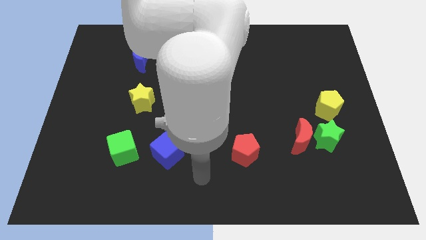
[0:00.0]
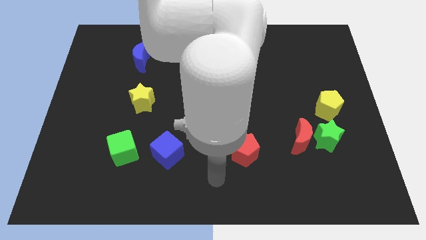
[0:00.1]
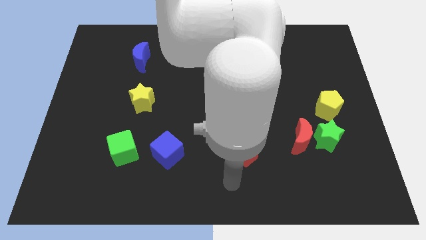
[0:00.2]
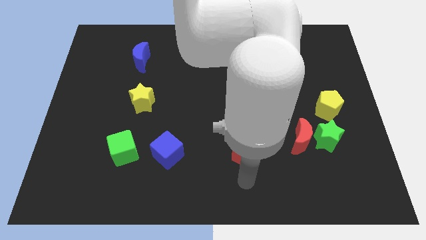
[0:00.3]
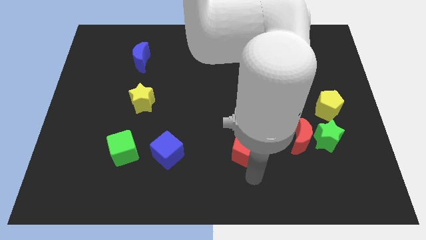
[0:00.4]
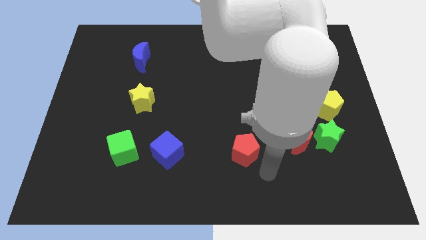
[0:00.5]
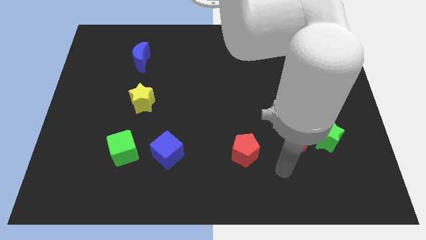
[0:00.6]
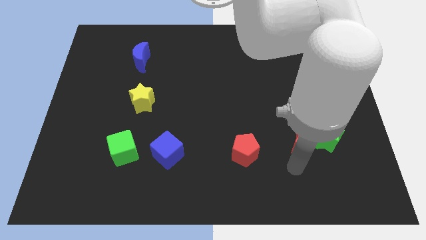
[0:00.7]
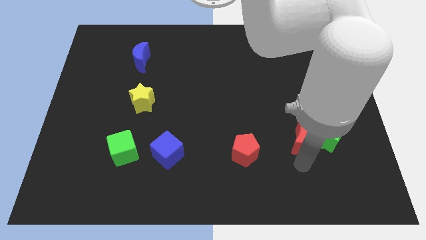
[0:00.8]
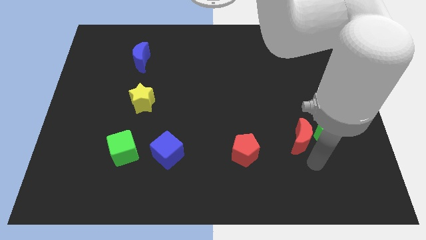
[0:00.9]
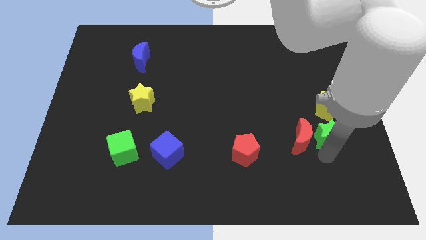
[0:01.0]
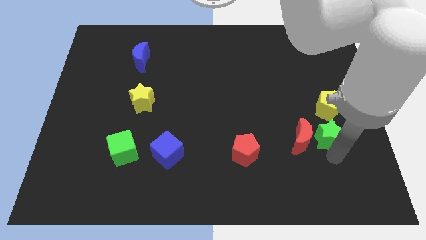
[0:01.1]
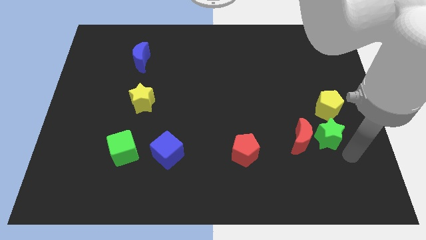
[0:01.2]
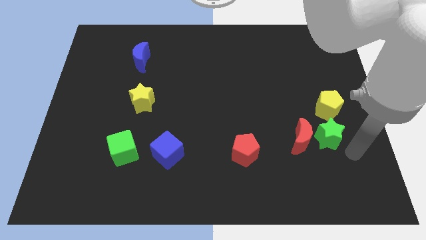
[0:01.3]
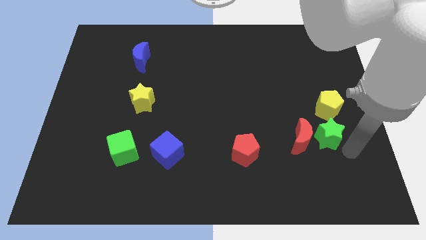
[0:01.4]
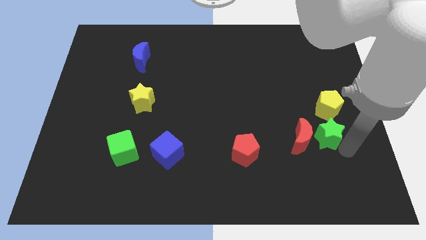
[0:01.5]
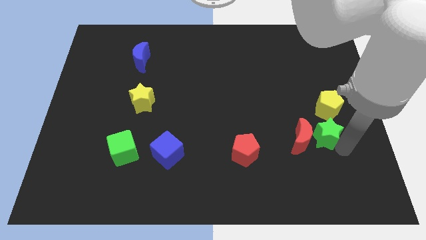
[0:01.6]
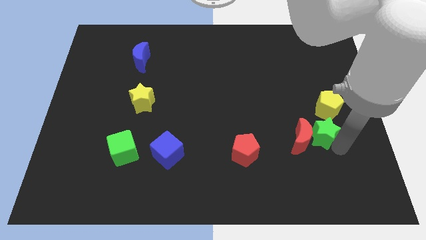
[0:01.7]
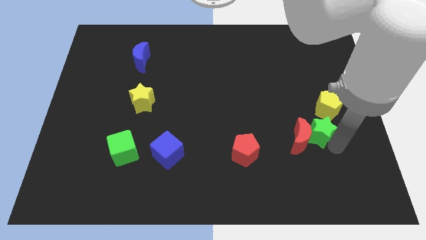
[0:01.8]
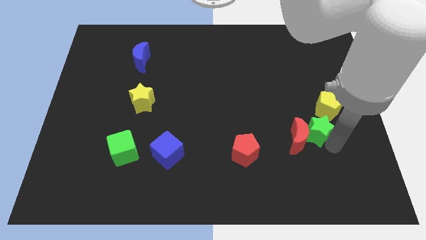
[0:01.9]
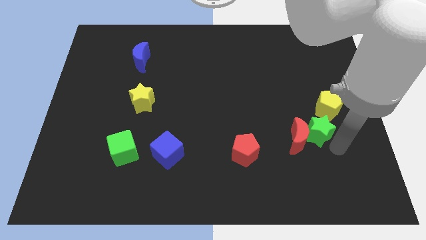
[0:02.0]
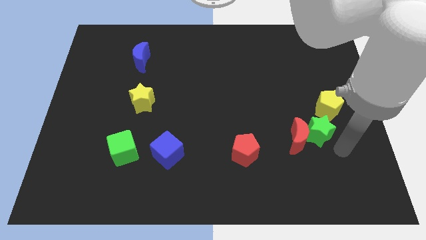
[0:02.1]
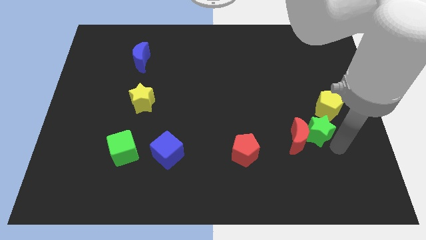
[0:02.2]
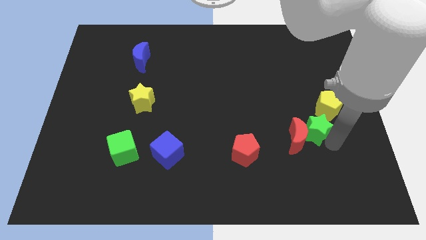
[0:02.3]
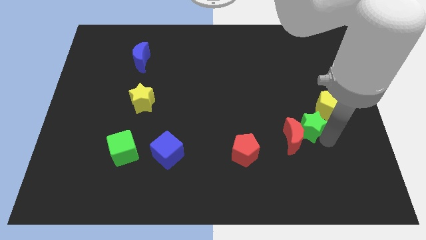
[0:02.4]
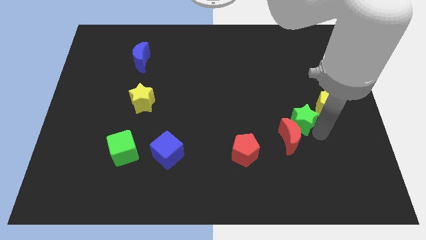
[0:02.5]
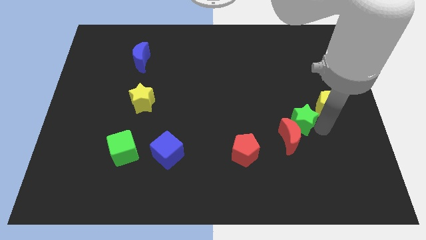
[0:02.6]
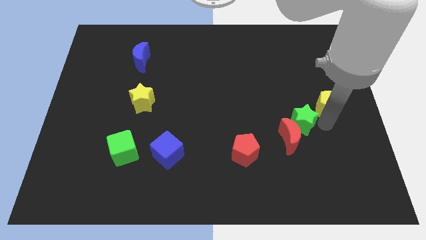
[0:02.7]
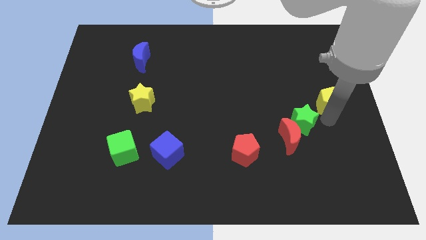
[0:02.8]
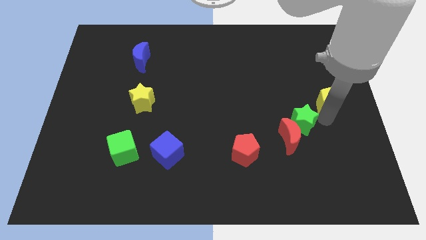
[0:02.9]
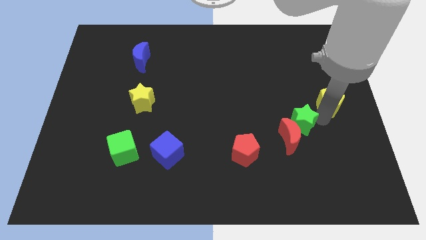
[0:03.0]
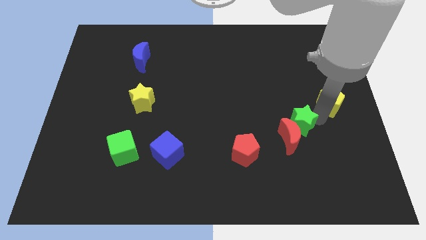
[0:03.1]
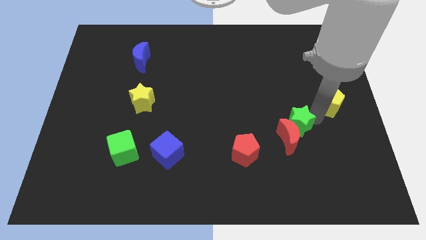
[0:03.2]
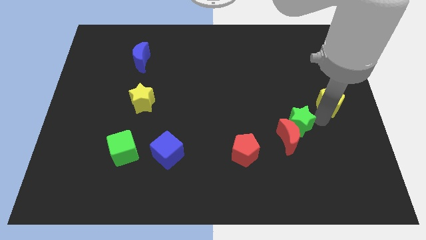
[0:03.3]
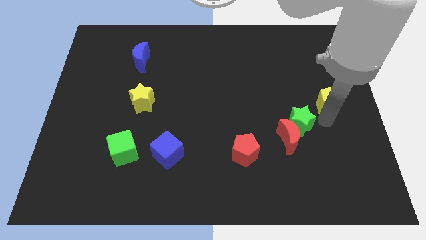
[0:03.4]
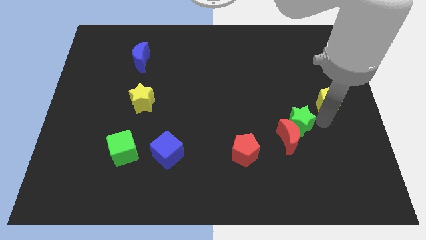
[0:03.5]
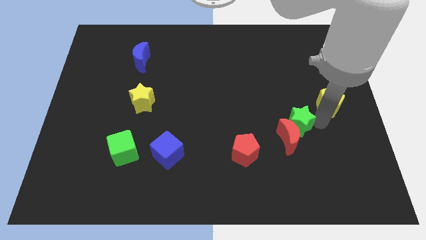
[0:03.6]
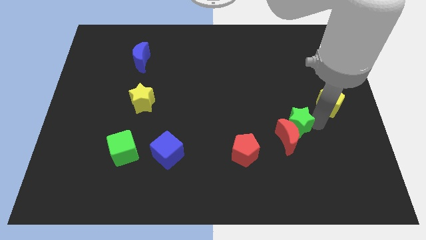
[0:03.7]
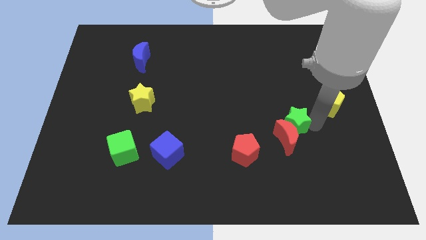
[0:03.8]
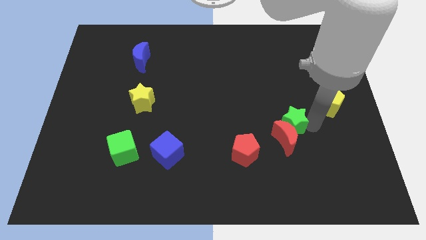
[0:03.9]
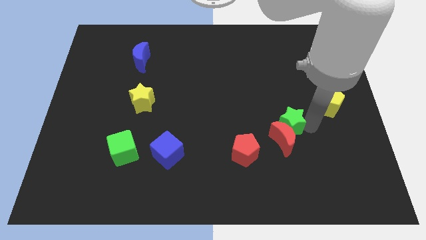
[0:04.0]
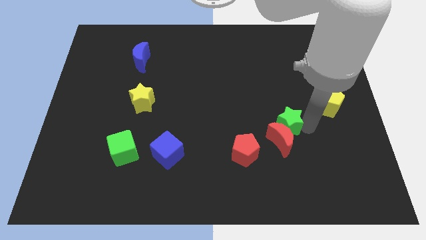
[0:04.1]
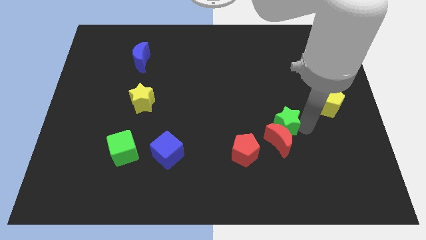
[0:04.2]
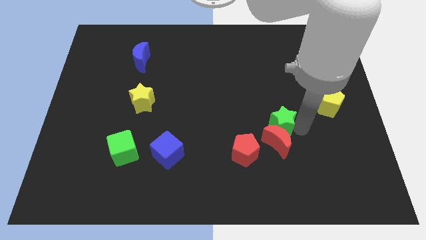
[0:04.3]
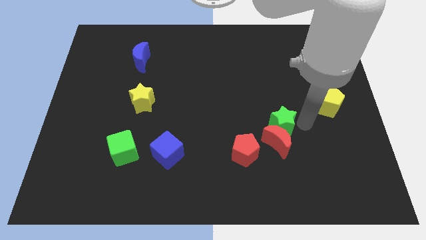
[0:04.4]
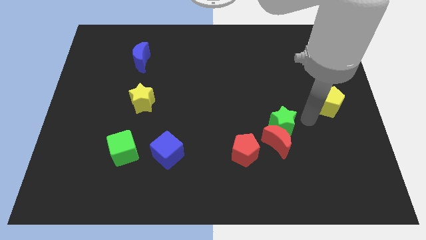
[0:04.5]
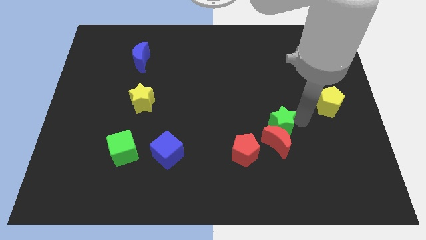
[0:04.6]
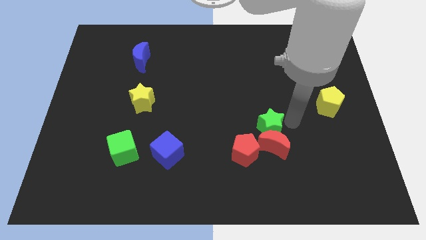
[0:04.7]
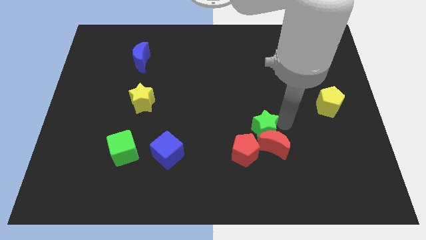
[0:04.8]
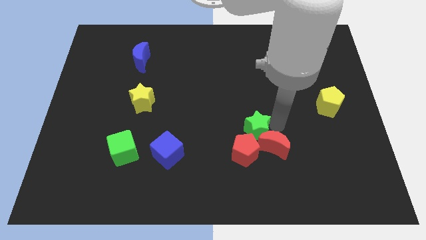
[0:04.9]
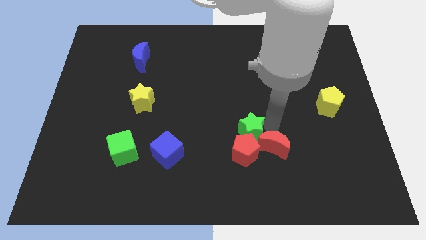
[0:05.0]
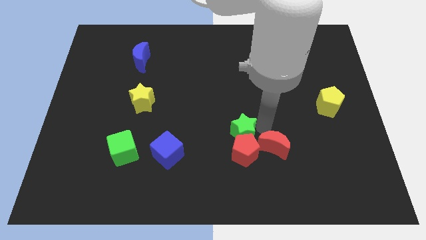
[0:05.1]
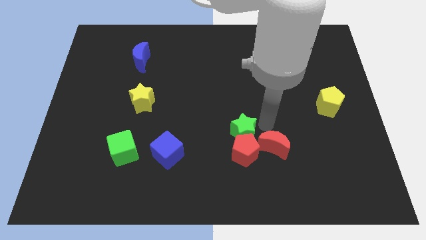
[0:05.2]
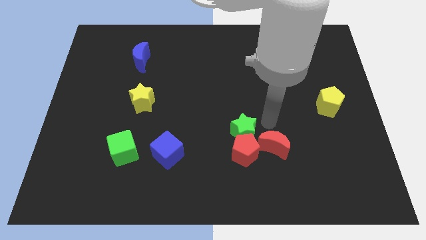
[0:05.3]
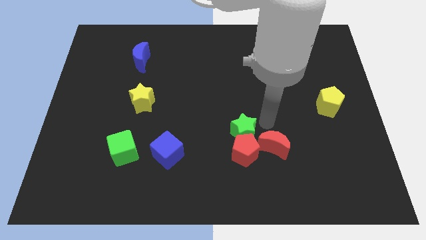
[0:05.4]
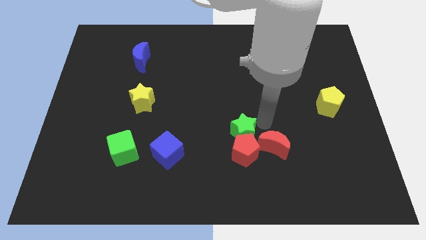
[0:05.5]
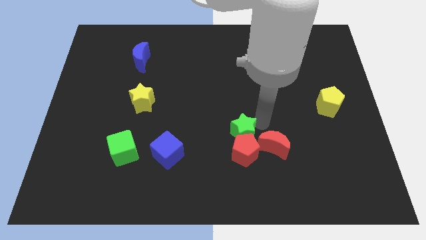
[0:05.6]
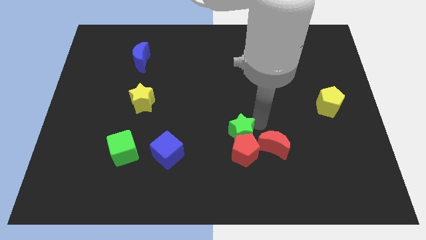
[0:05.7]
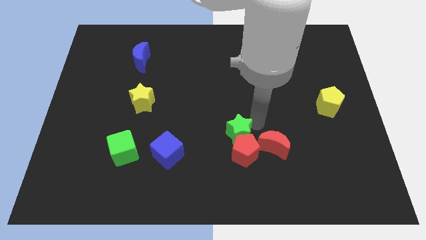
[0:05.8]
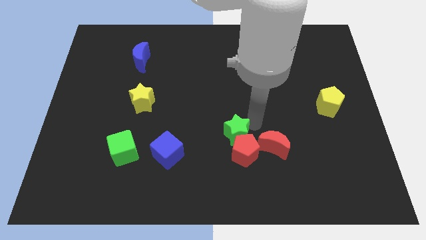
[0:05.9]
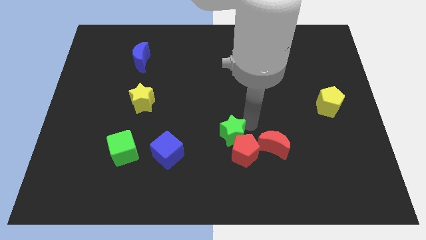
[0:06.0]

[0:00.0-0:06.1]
move the green star left

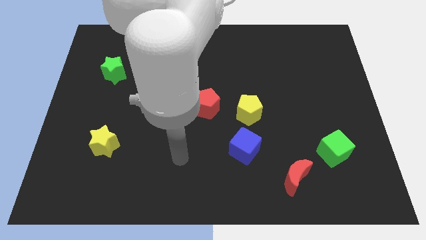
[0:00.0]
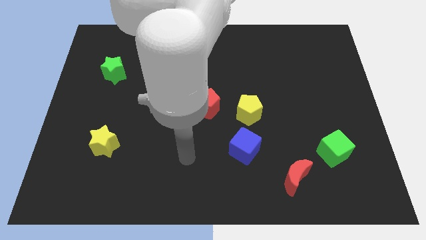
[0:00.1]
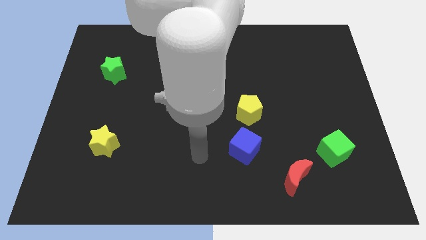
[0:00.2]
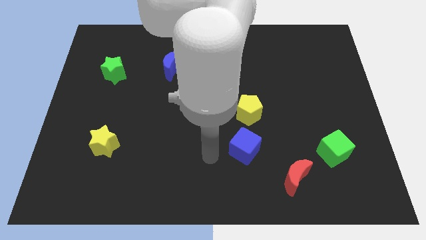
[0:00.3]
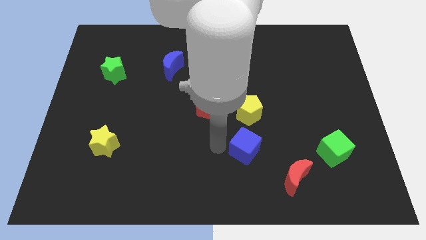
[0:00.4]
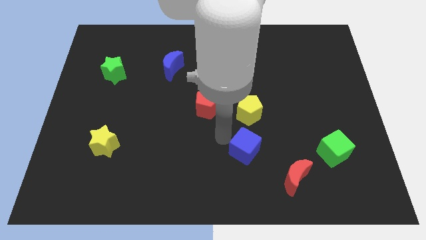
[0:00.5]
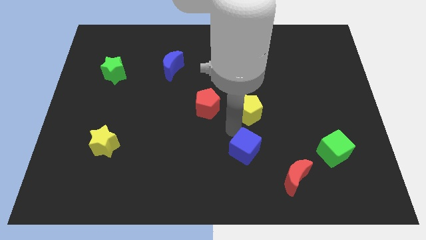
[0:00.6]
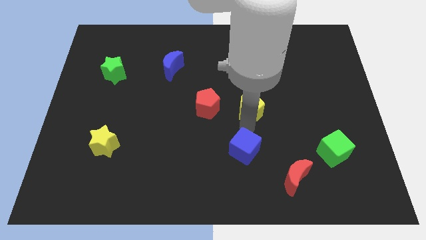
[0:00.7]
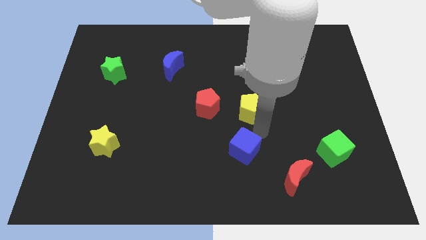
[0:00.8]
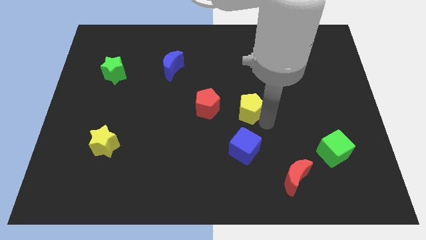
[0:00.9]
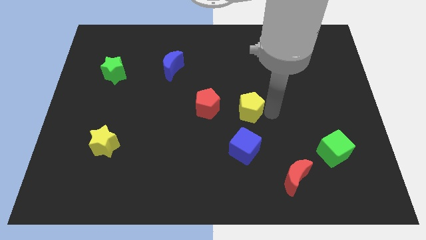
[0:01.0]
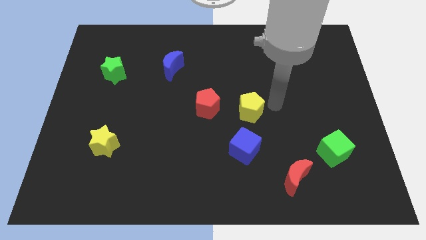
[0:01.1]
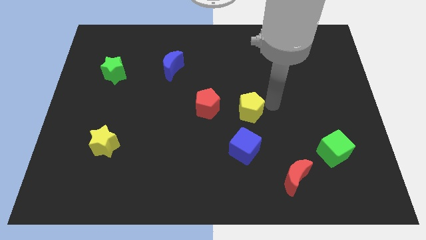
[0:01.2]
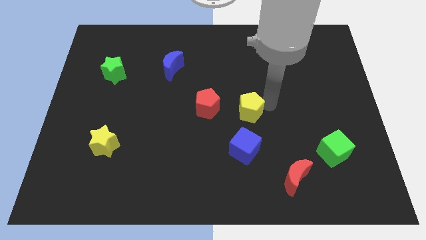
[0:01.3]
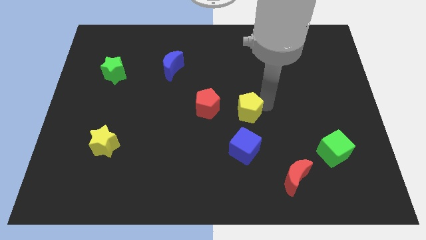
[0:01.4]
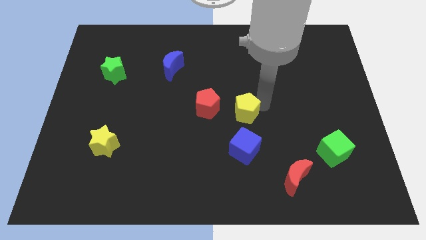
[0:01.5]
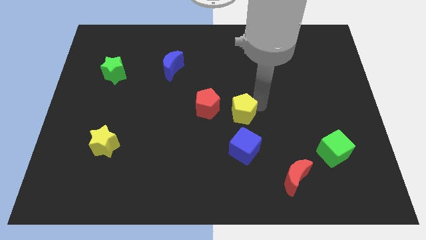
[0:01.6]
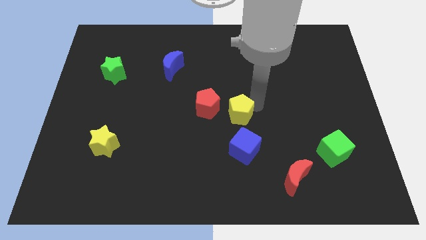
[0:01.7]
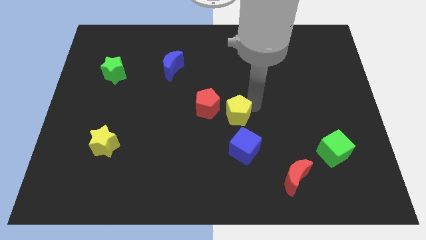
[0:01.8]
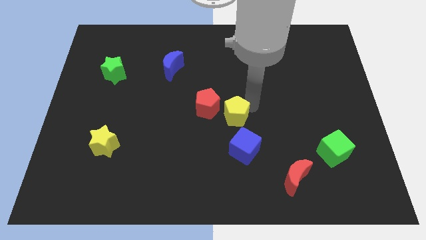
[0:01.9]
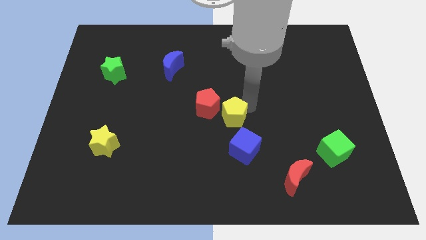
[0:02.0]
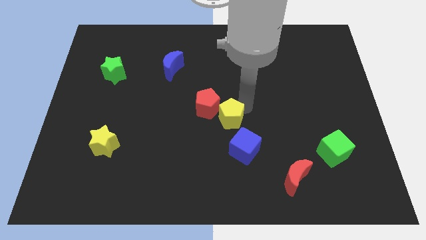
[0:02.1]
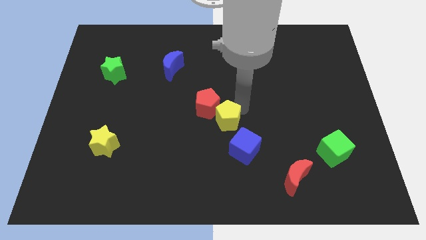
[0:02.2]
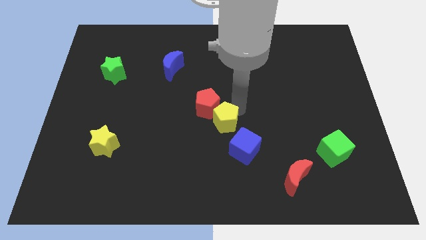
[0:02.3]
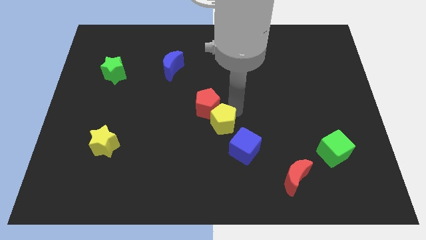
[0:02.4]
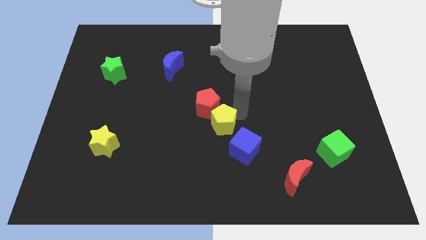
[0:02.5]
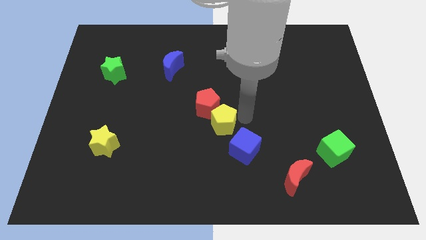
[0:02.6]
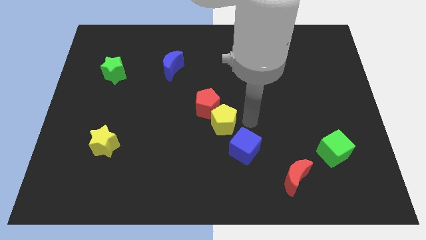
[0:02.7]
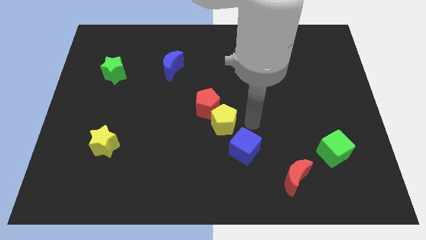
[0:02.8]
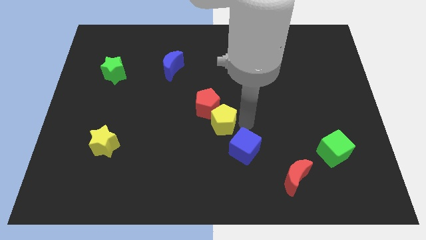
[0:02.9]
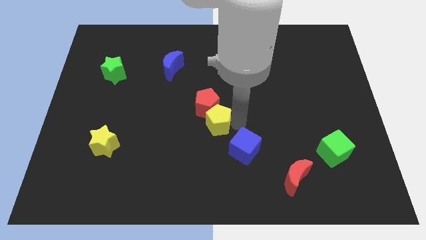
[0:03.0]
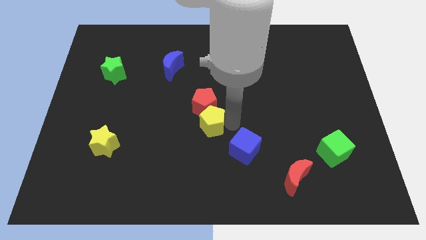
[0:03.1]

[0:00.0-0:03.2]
move the yellow pentagon to the left somewhat
